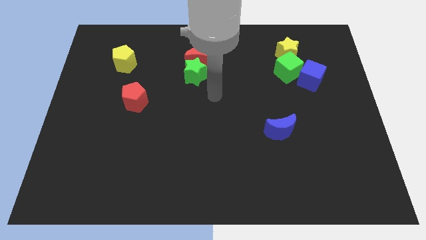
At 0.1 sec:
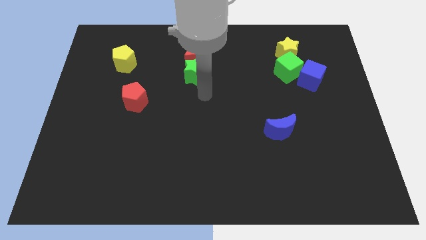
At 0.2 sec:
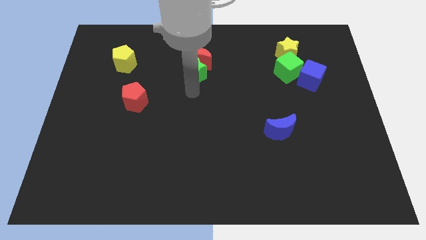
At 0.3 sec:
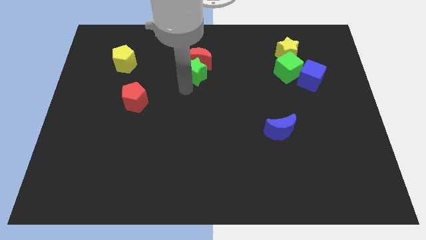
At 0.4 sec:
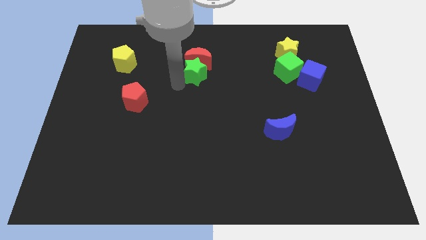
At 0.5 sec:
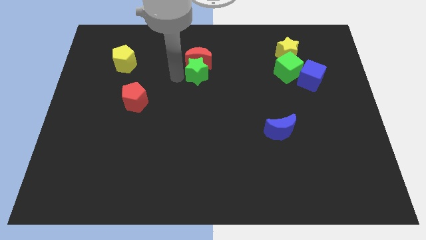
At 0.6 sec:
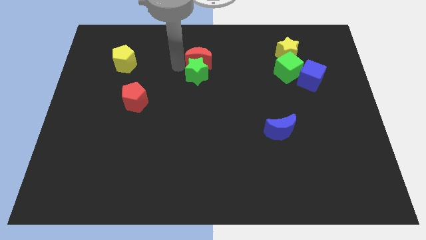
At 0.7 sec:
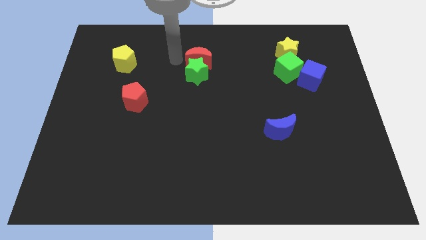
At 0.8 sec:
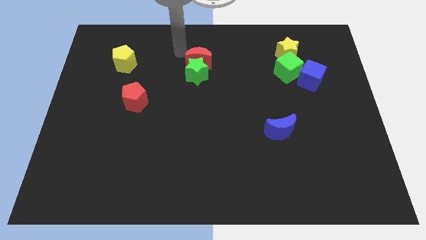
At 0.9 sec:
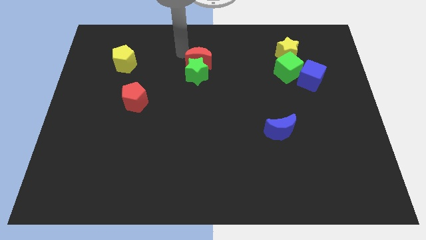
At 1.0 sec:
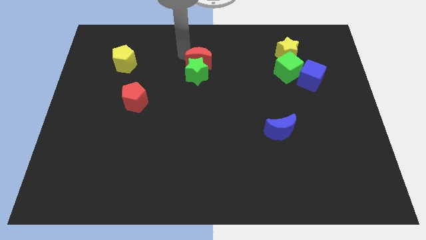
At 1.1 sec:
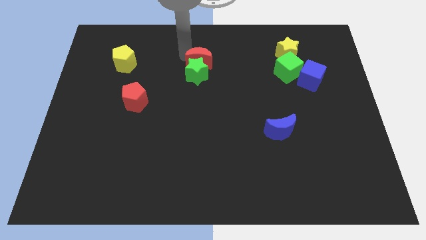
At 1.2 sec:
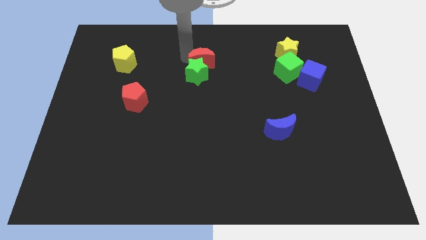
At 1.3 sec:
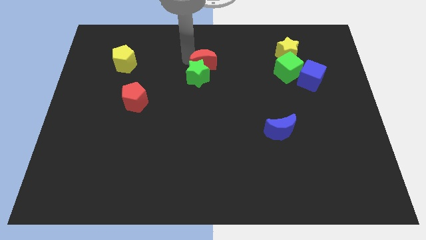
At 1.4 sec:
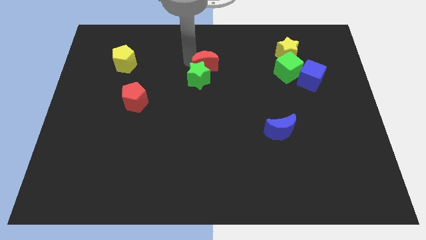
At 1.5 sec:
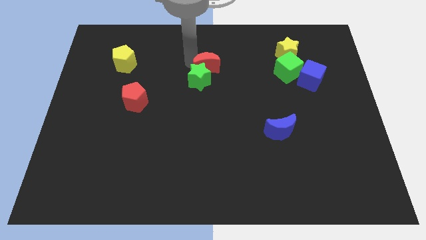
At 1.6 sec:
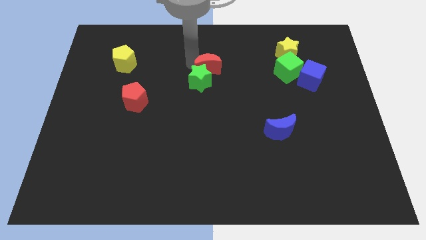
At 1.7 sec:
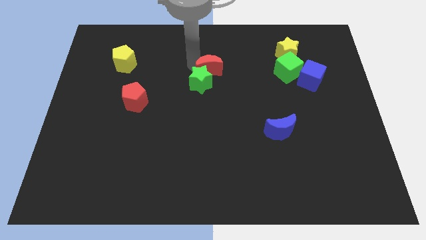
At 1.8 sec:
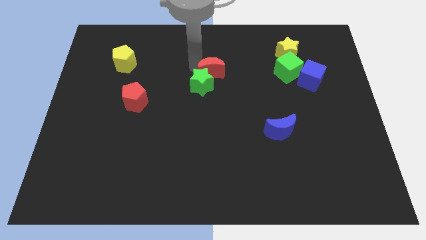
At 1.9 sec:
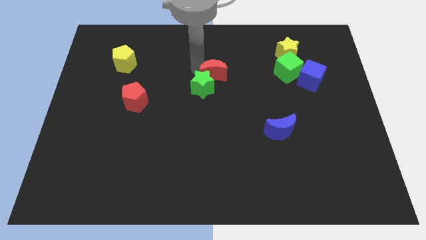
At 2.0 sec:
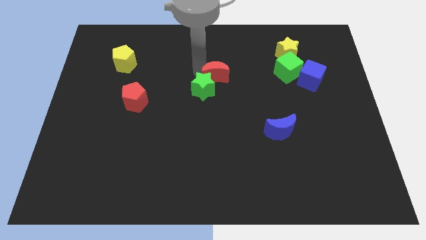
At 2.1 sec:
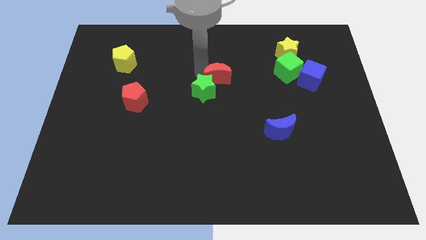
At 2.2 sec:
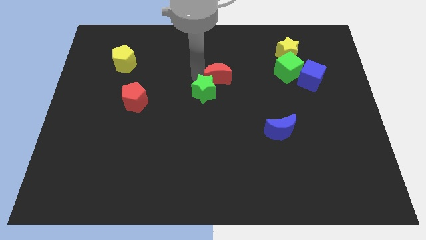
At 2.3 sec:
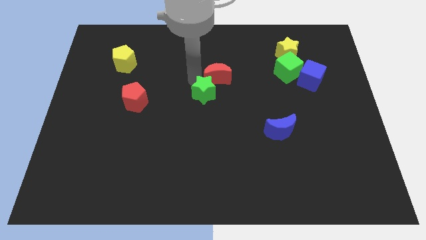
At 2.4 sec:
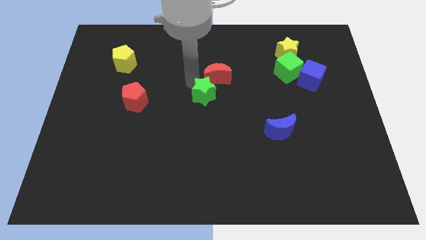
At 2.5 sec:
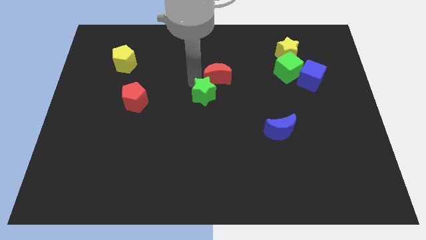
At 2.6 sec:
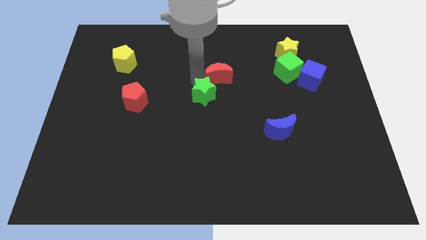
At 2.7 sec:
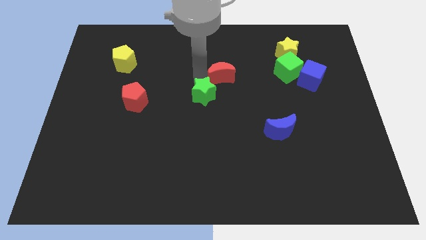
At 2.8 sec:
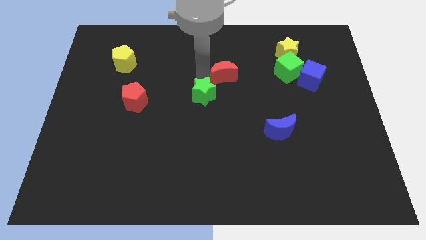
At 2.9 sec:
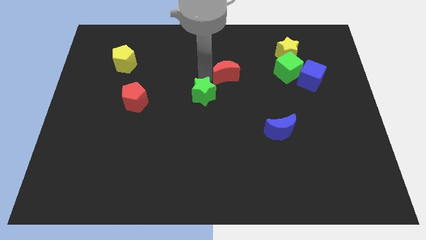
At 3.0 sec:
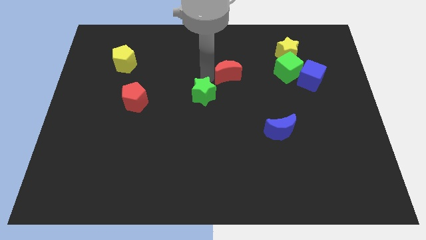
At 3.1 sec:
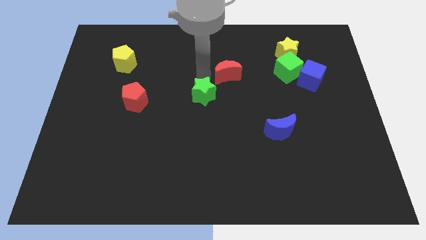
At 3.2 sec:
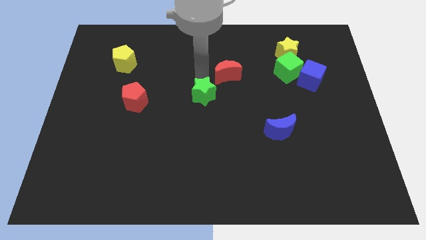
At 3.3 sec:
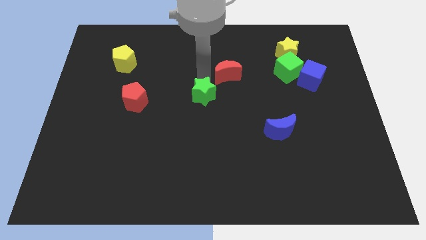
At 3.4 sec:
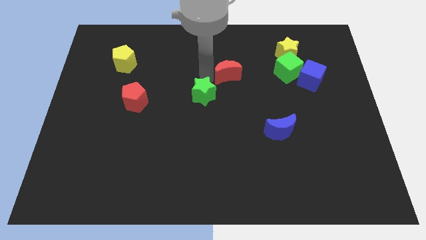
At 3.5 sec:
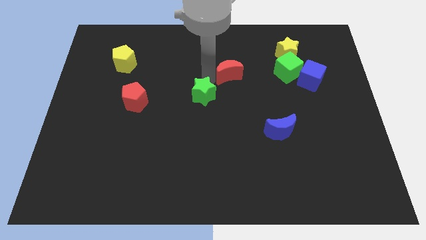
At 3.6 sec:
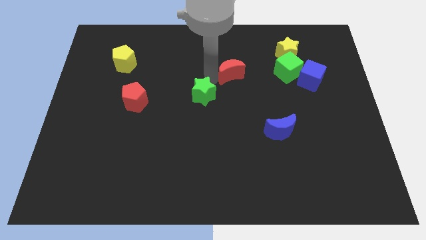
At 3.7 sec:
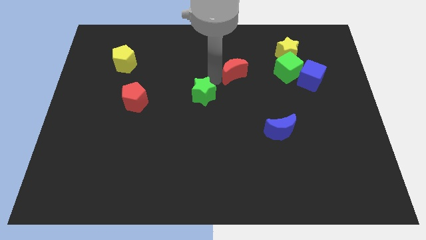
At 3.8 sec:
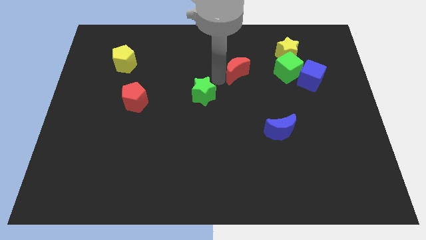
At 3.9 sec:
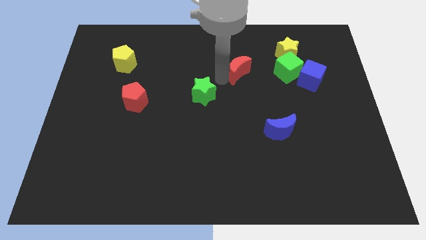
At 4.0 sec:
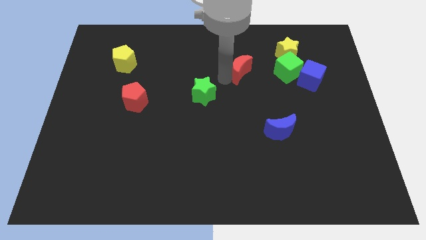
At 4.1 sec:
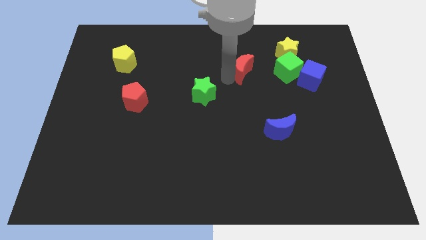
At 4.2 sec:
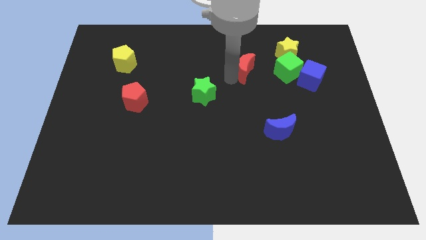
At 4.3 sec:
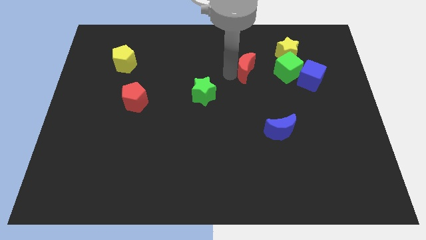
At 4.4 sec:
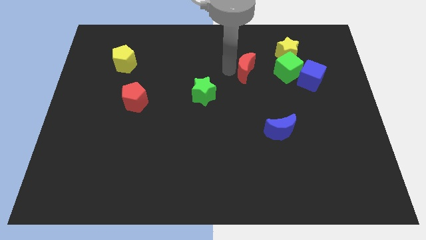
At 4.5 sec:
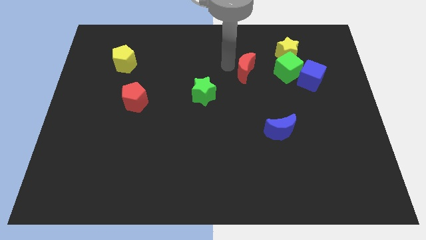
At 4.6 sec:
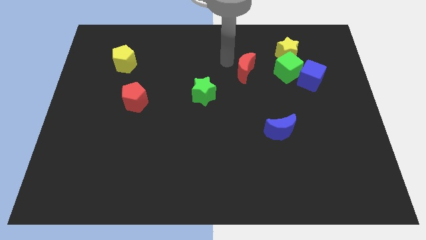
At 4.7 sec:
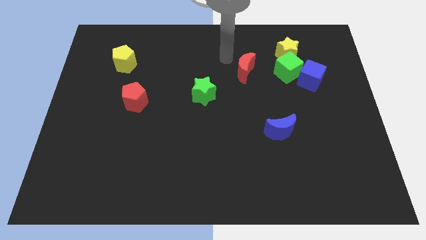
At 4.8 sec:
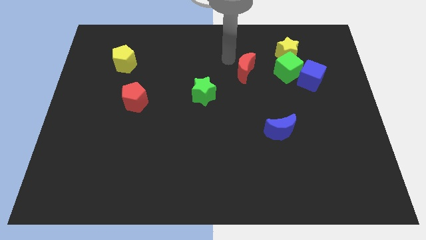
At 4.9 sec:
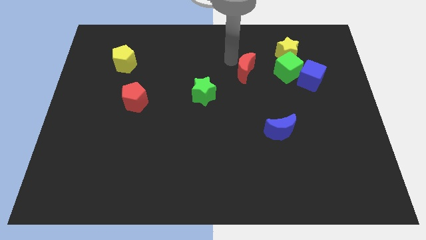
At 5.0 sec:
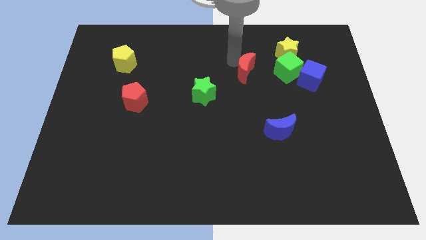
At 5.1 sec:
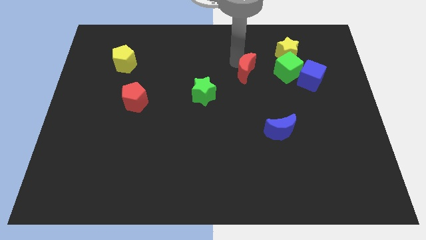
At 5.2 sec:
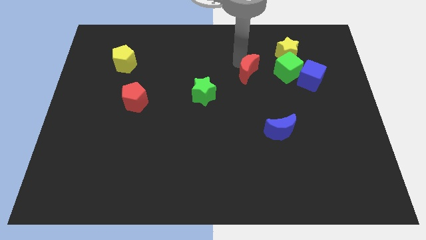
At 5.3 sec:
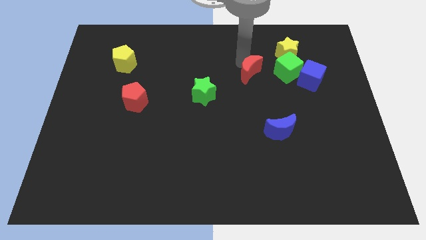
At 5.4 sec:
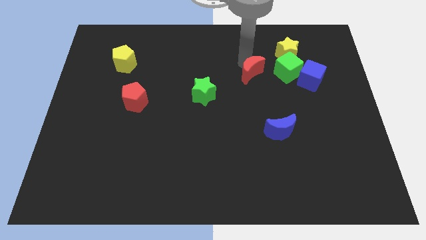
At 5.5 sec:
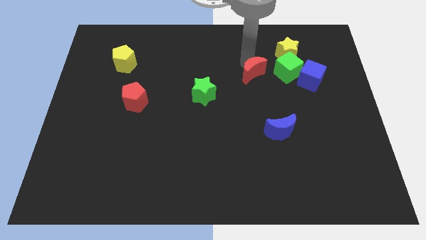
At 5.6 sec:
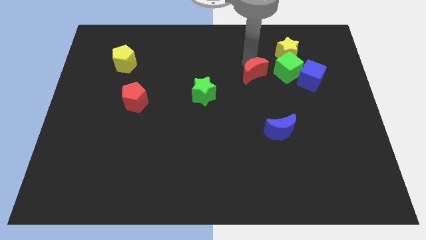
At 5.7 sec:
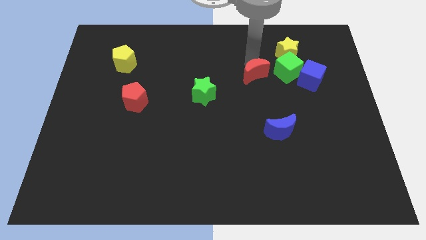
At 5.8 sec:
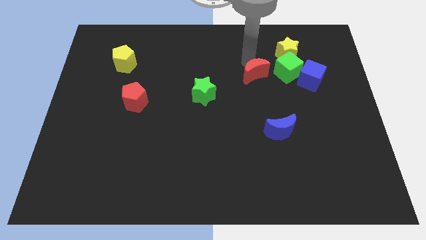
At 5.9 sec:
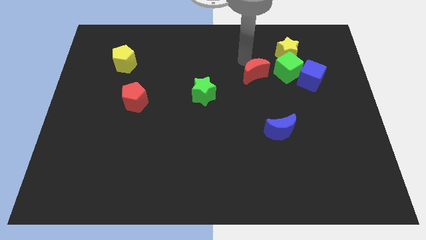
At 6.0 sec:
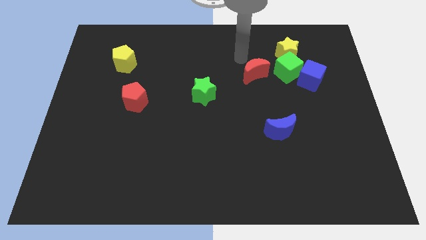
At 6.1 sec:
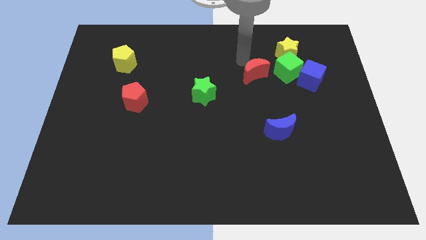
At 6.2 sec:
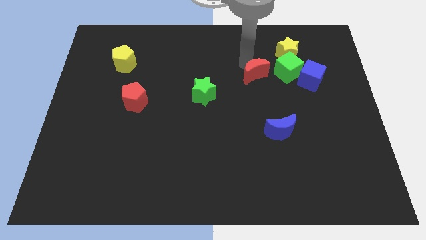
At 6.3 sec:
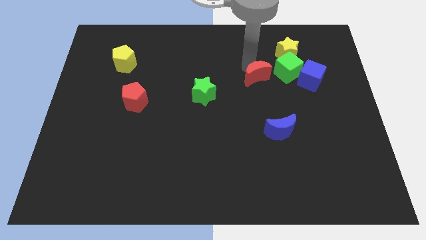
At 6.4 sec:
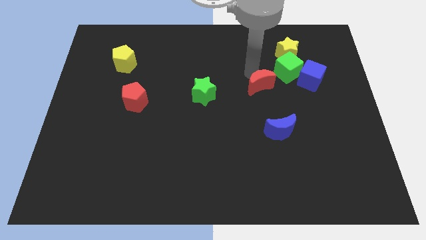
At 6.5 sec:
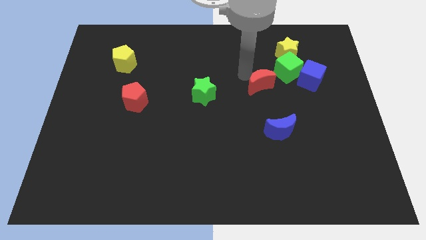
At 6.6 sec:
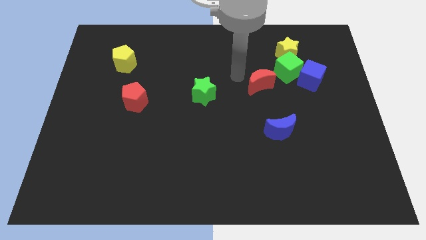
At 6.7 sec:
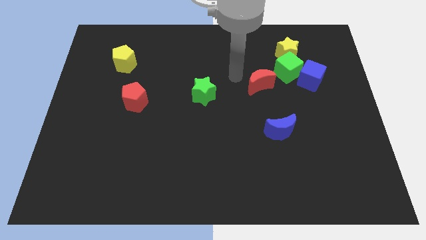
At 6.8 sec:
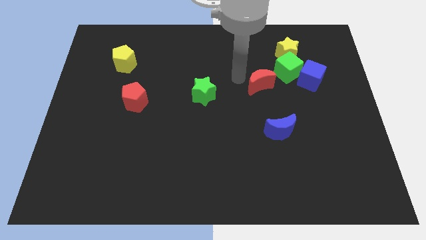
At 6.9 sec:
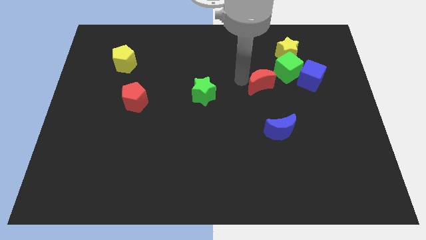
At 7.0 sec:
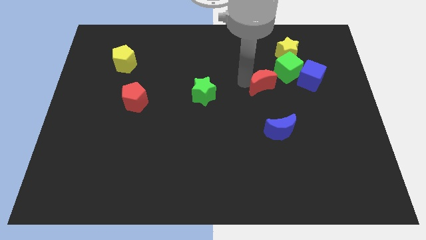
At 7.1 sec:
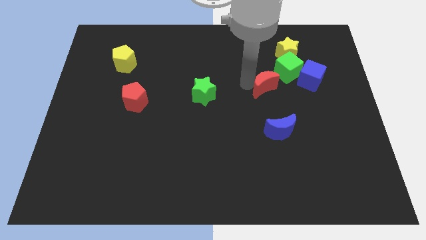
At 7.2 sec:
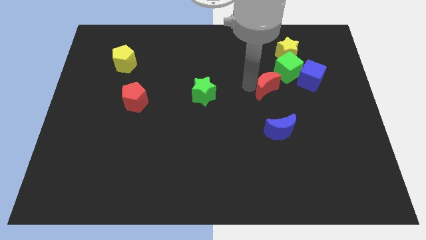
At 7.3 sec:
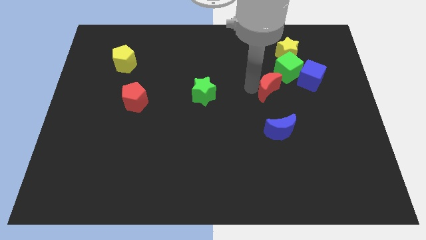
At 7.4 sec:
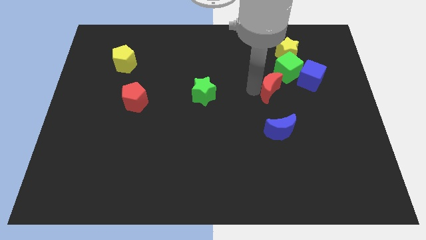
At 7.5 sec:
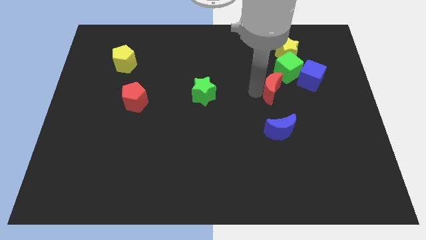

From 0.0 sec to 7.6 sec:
put the red moon diagonally down and to the left of the blue cube
